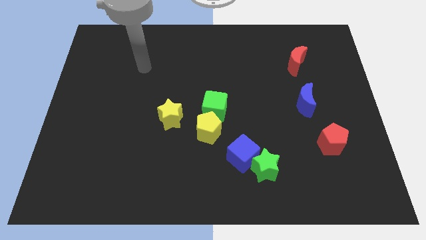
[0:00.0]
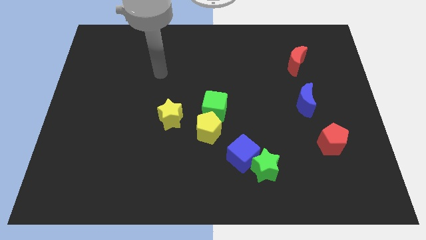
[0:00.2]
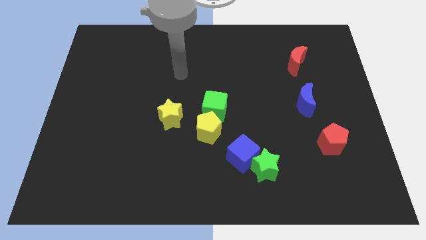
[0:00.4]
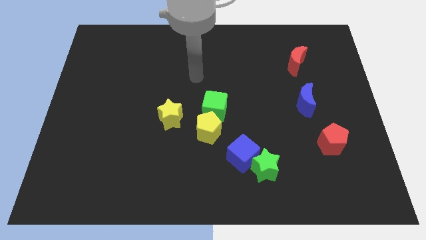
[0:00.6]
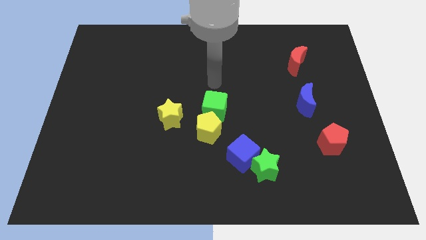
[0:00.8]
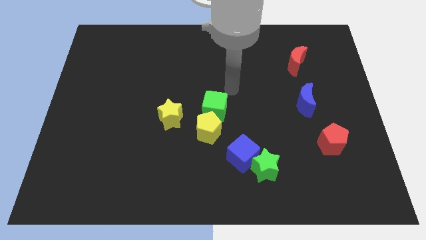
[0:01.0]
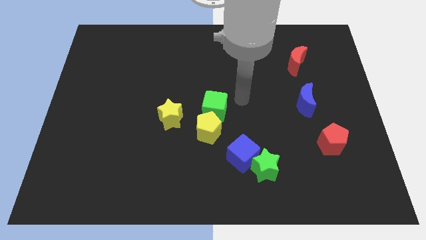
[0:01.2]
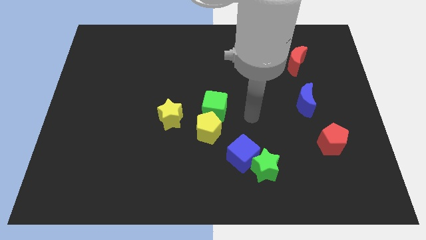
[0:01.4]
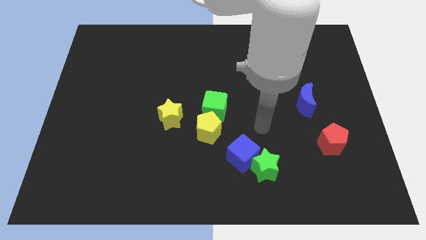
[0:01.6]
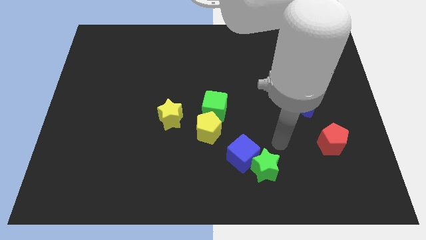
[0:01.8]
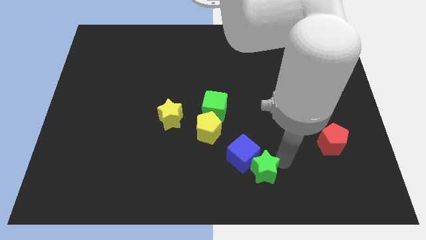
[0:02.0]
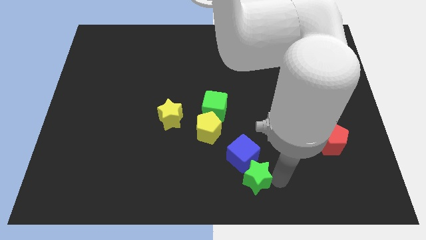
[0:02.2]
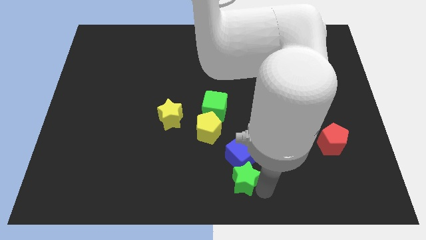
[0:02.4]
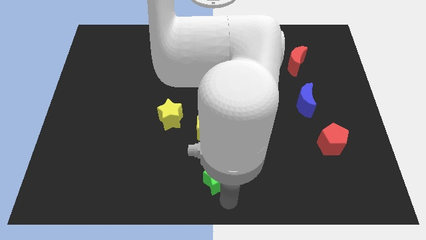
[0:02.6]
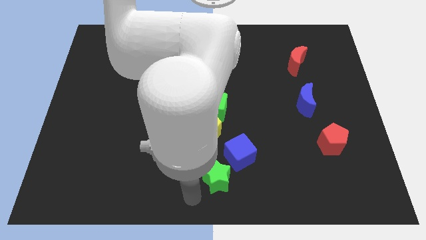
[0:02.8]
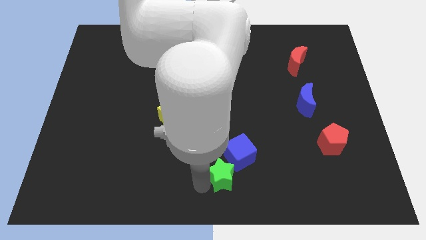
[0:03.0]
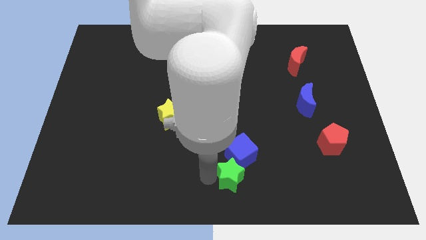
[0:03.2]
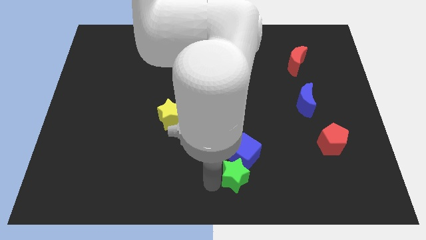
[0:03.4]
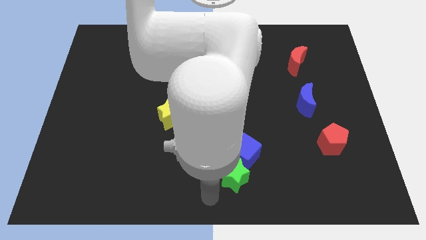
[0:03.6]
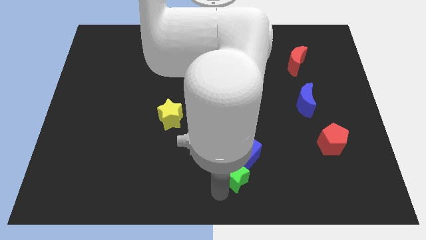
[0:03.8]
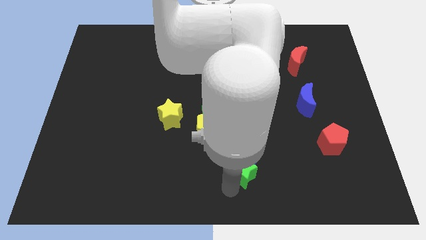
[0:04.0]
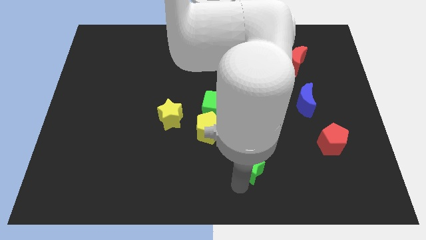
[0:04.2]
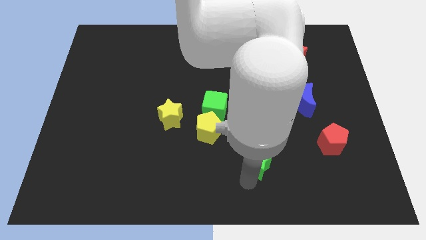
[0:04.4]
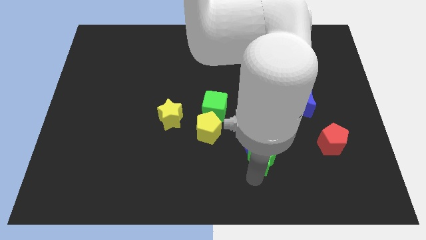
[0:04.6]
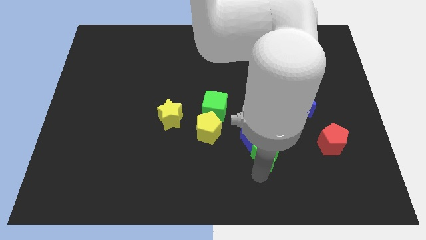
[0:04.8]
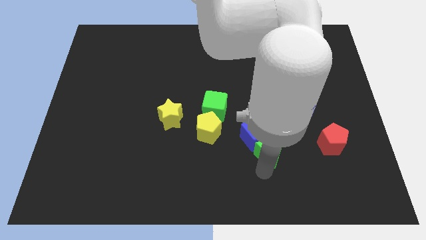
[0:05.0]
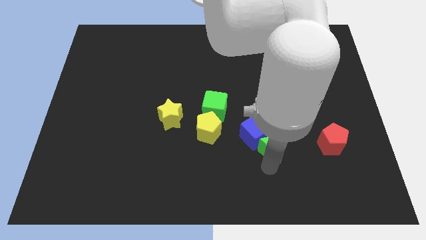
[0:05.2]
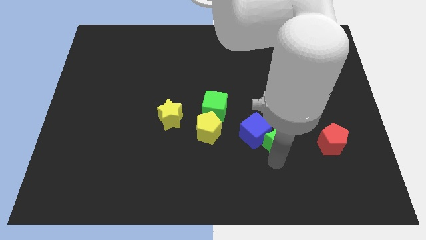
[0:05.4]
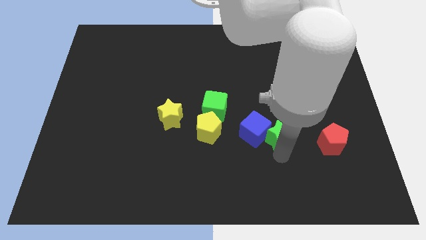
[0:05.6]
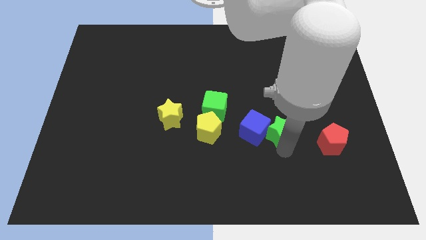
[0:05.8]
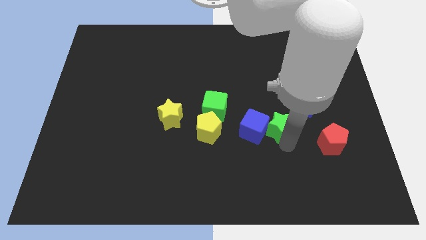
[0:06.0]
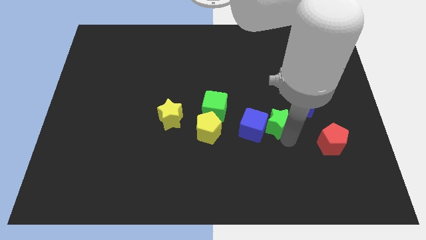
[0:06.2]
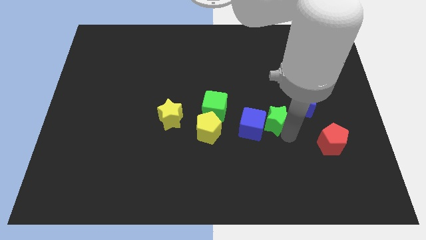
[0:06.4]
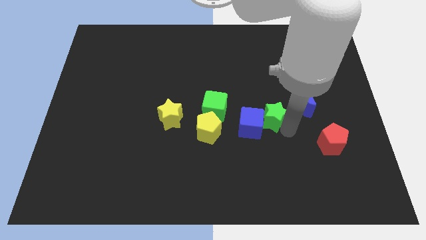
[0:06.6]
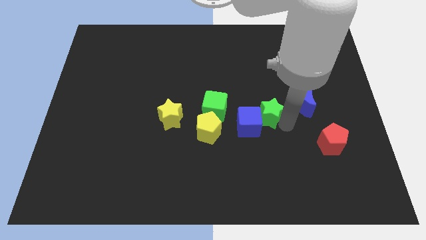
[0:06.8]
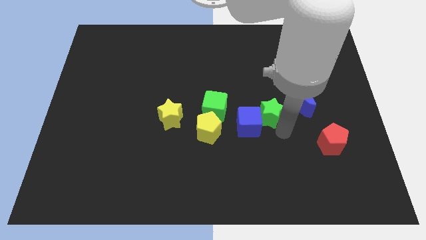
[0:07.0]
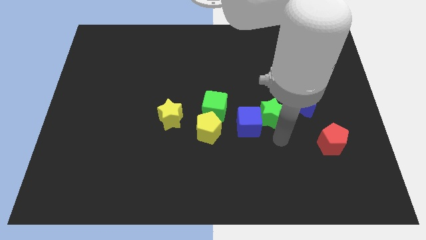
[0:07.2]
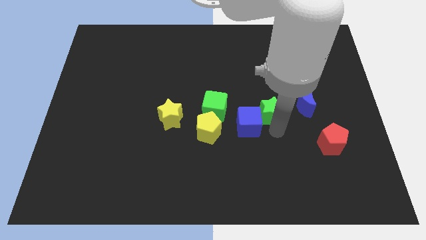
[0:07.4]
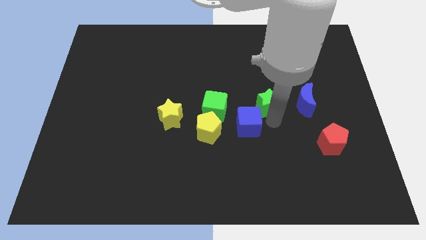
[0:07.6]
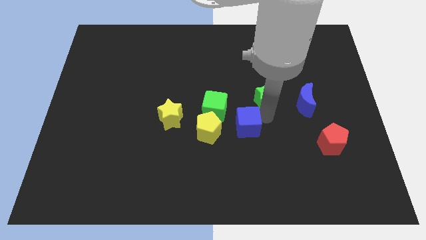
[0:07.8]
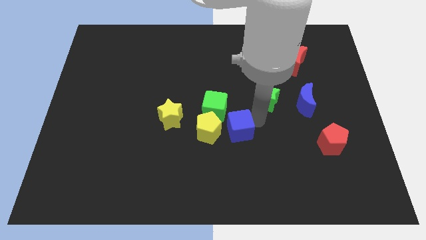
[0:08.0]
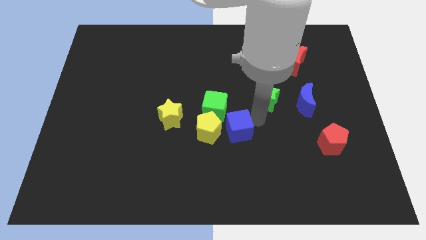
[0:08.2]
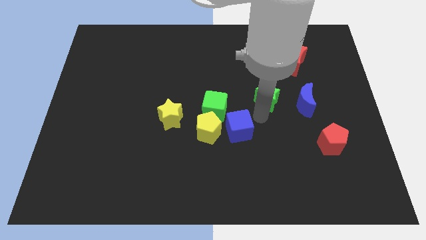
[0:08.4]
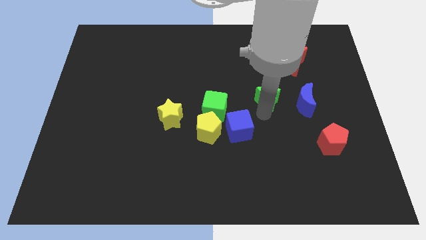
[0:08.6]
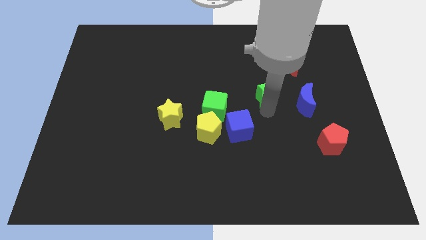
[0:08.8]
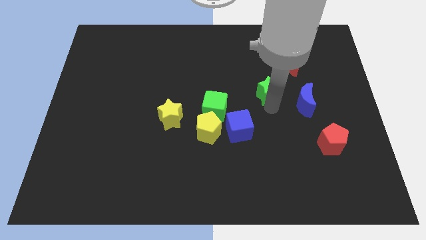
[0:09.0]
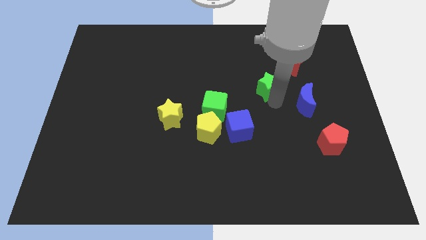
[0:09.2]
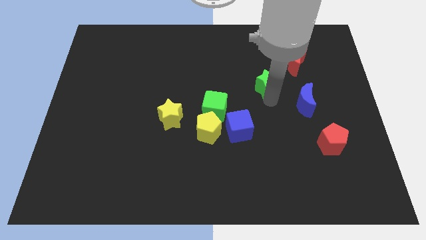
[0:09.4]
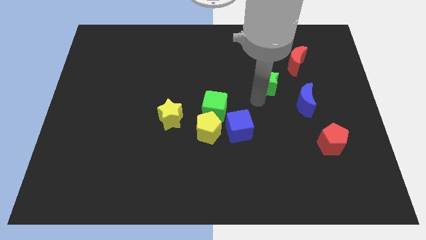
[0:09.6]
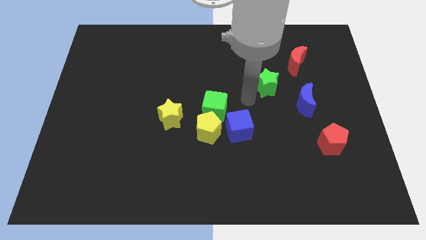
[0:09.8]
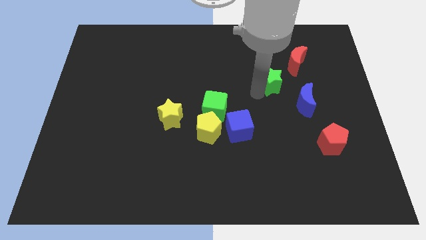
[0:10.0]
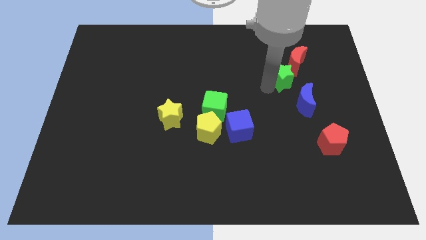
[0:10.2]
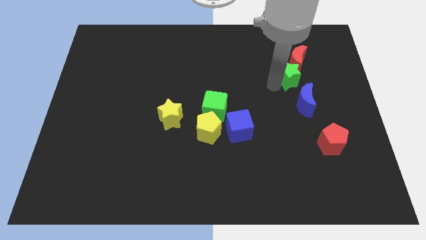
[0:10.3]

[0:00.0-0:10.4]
slide the green star towards the red moon

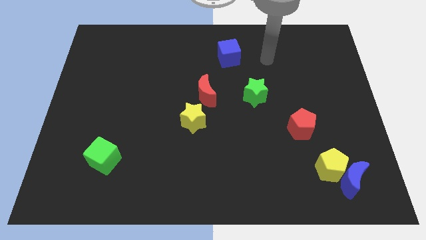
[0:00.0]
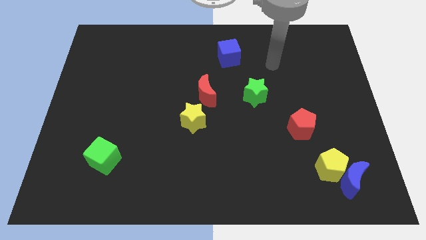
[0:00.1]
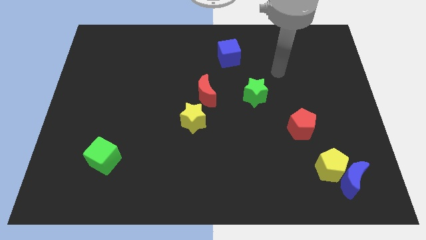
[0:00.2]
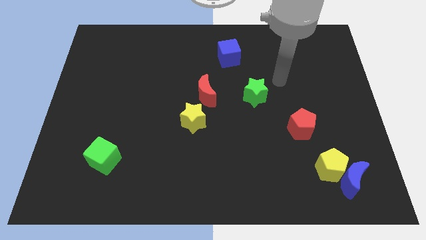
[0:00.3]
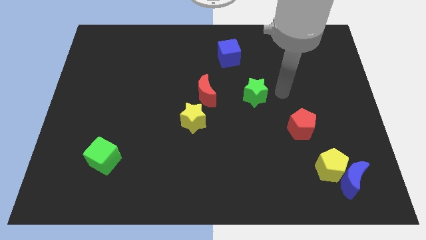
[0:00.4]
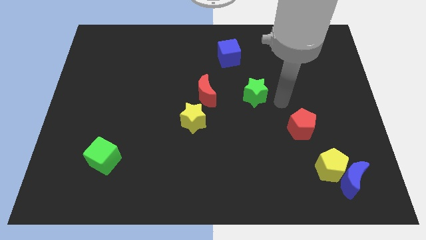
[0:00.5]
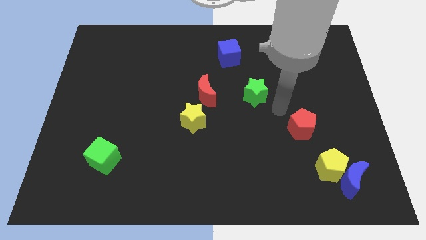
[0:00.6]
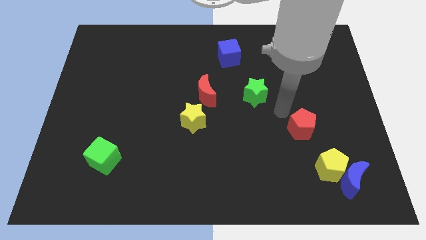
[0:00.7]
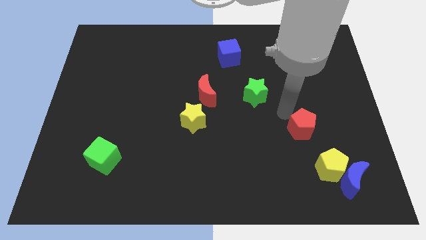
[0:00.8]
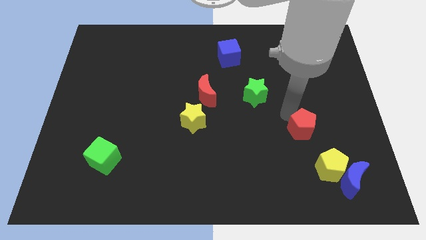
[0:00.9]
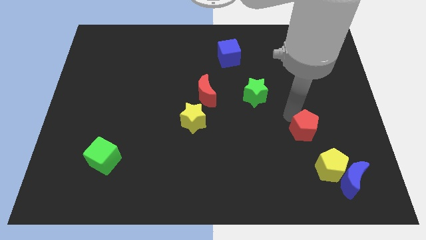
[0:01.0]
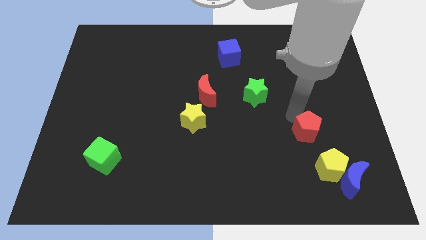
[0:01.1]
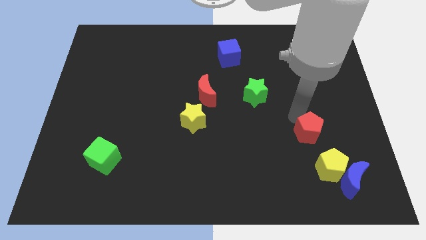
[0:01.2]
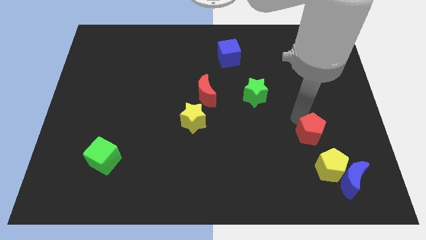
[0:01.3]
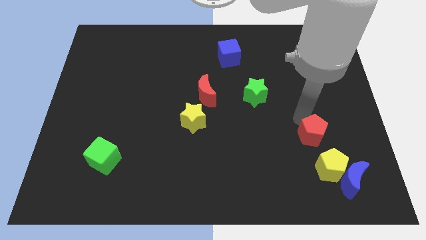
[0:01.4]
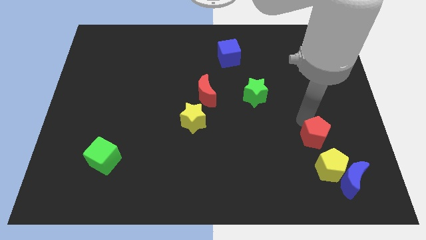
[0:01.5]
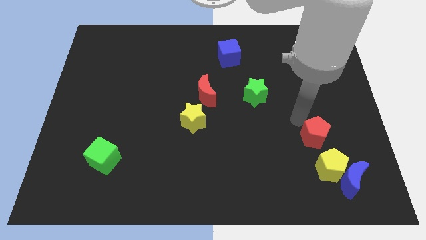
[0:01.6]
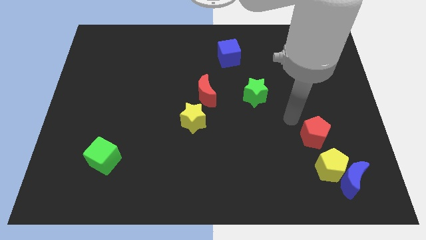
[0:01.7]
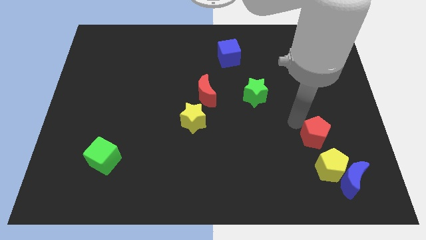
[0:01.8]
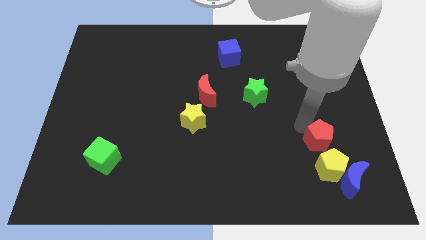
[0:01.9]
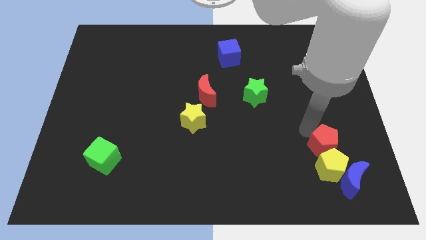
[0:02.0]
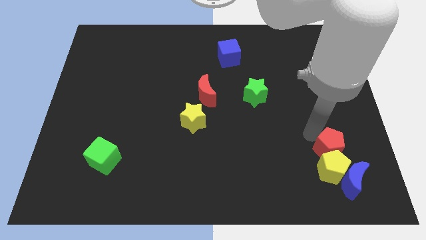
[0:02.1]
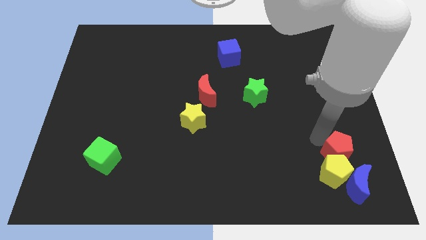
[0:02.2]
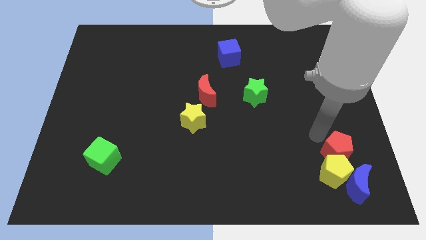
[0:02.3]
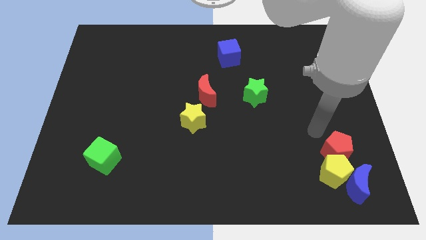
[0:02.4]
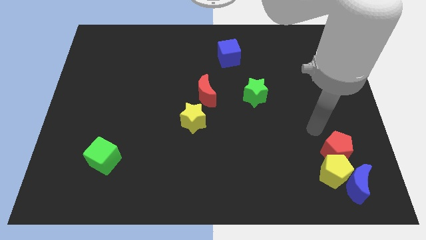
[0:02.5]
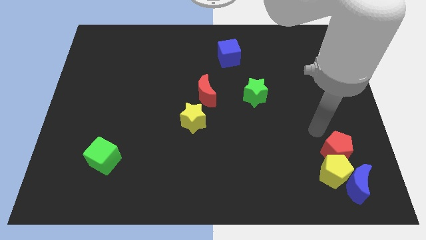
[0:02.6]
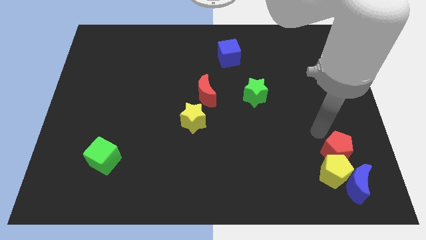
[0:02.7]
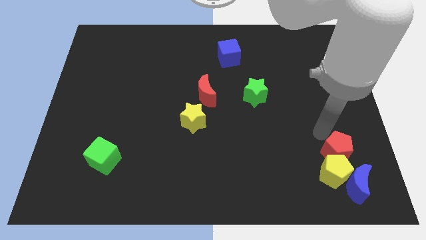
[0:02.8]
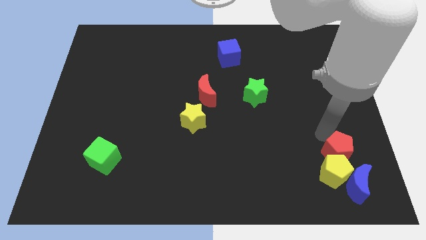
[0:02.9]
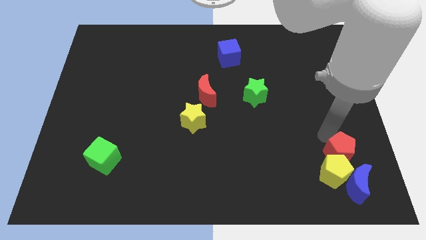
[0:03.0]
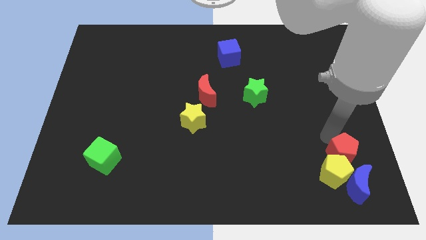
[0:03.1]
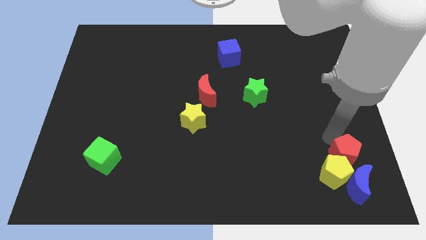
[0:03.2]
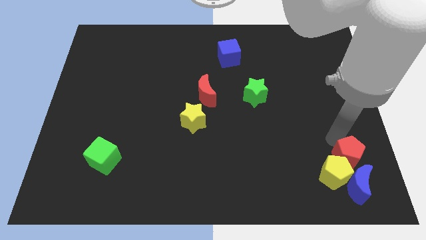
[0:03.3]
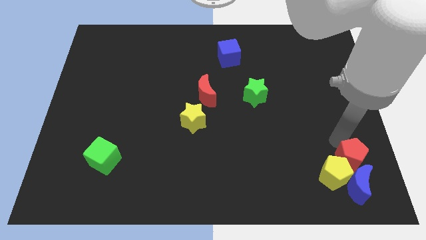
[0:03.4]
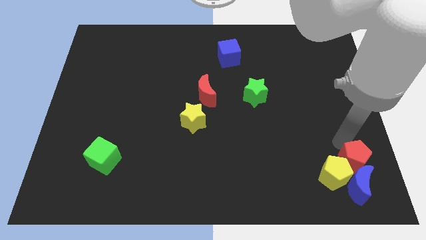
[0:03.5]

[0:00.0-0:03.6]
put the red pentagon to the blue moon
